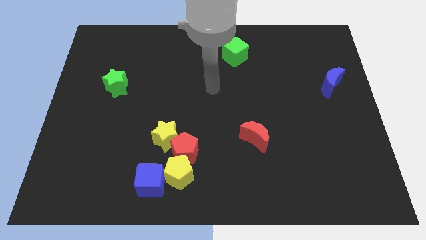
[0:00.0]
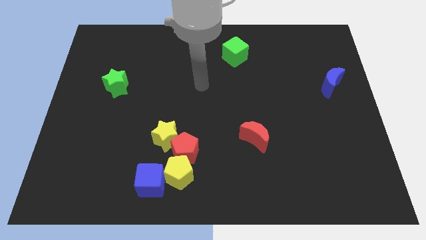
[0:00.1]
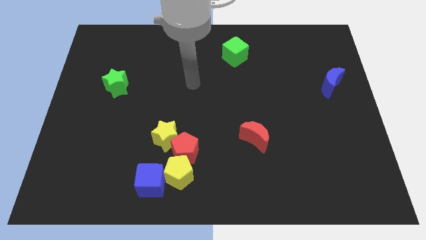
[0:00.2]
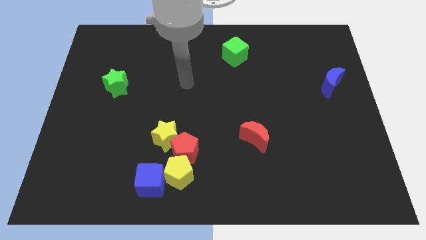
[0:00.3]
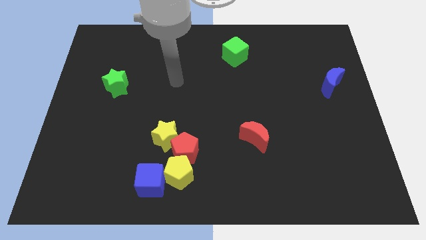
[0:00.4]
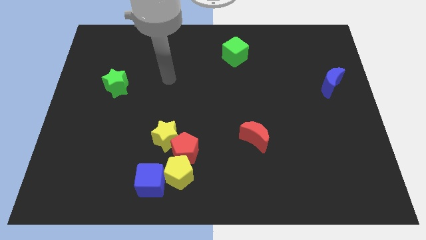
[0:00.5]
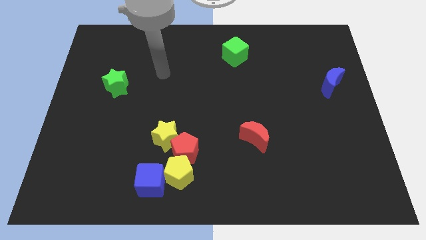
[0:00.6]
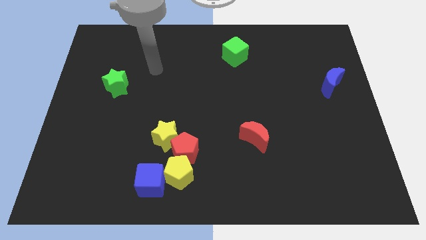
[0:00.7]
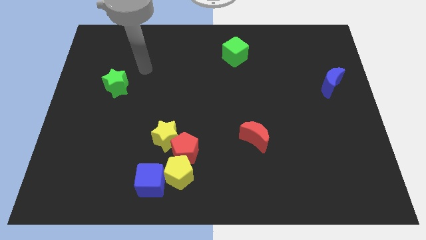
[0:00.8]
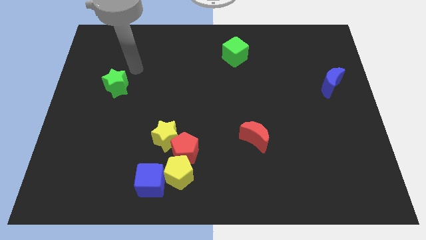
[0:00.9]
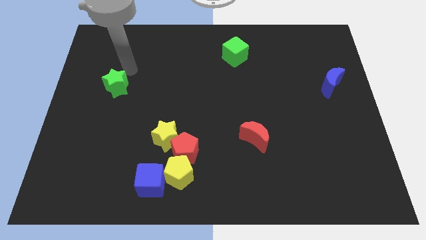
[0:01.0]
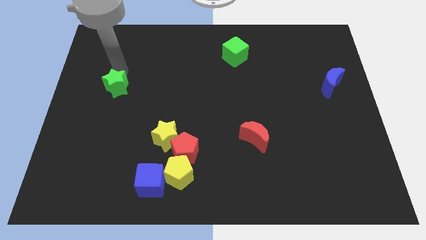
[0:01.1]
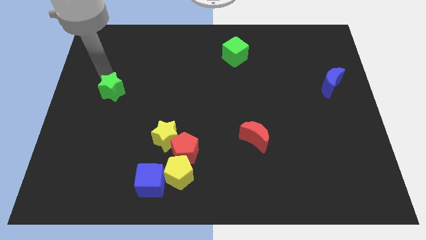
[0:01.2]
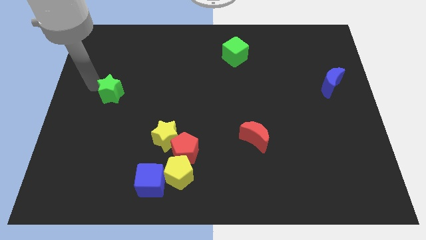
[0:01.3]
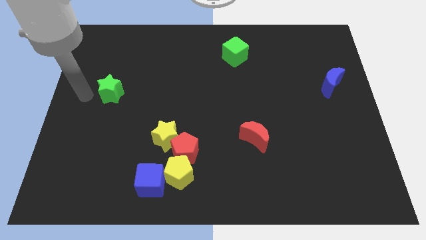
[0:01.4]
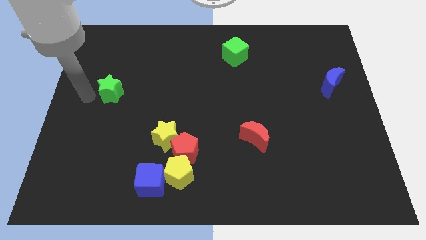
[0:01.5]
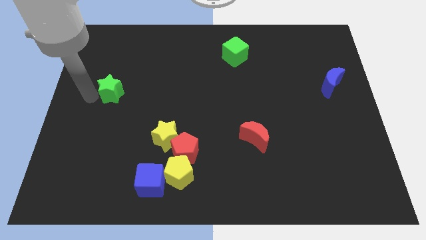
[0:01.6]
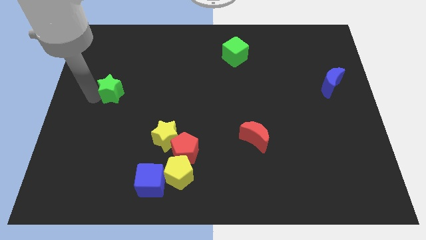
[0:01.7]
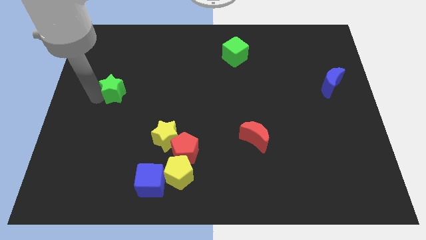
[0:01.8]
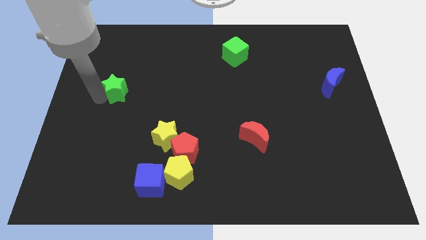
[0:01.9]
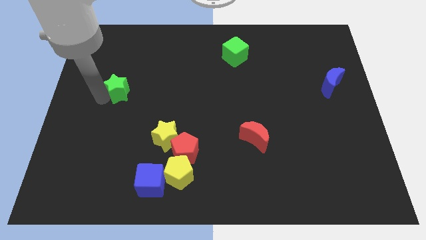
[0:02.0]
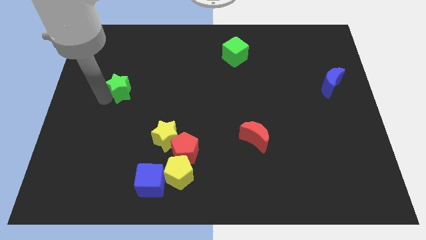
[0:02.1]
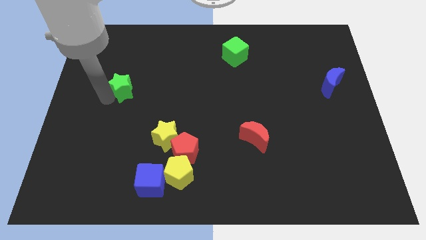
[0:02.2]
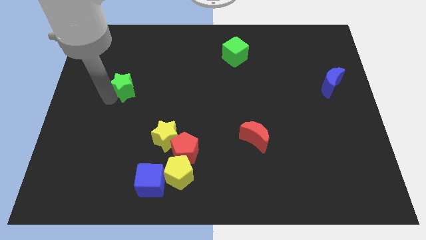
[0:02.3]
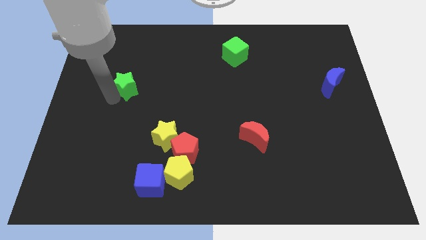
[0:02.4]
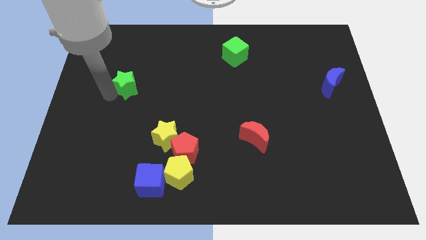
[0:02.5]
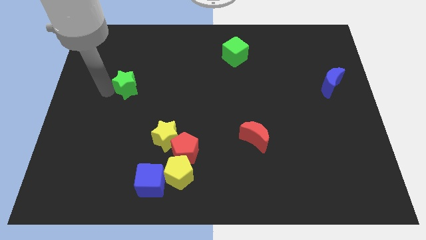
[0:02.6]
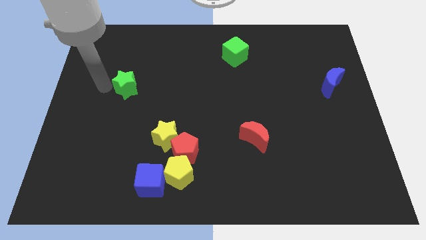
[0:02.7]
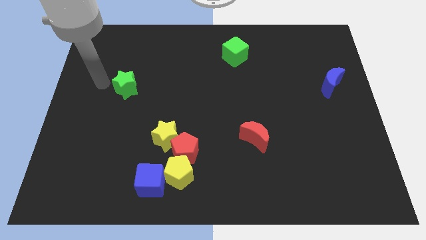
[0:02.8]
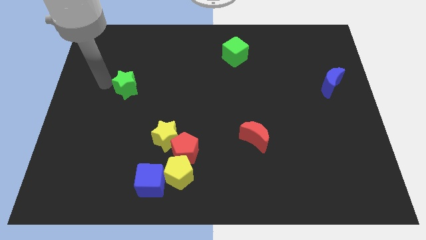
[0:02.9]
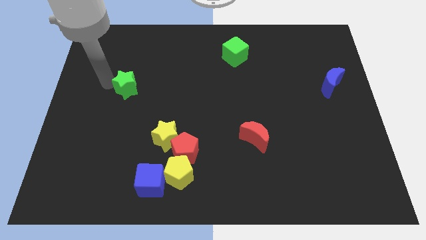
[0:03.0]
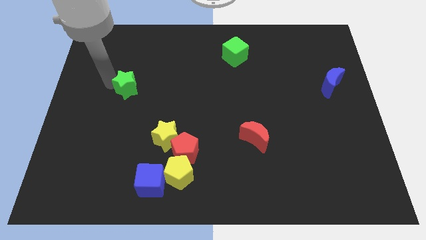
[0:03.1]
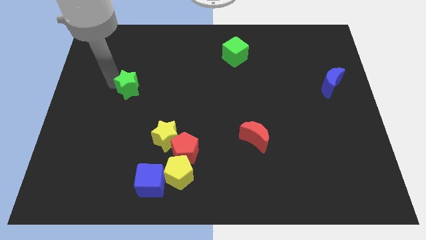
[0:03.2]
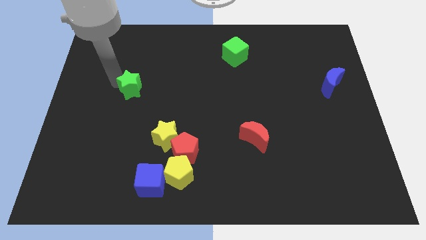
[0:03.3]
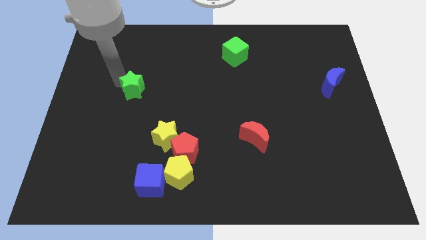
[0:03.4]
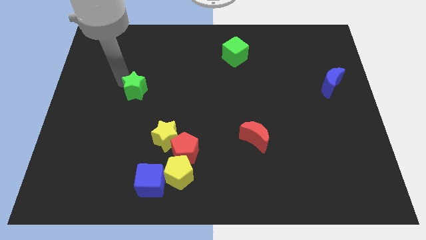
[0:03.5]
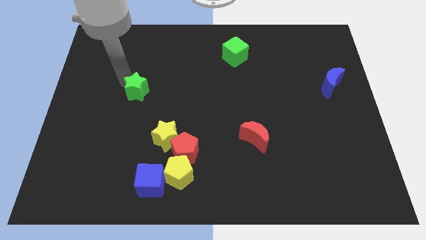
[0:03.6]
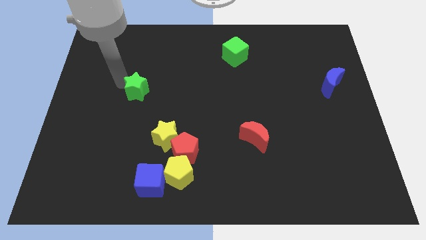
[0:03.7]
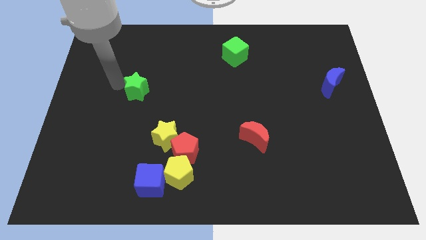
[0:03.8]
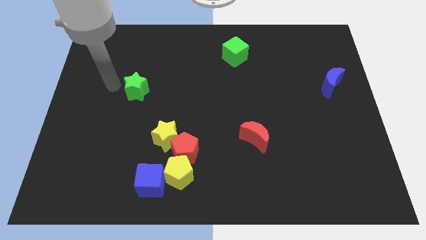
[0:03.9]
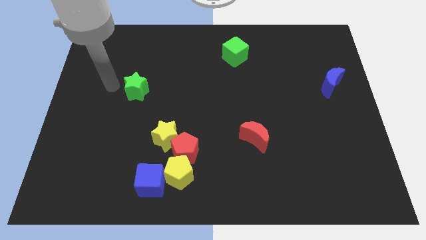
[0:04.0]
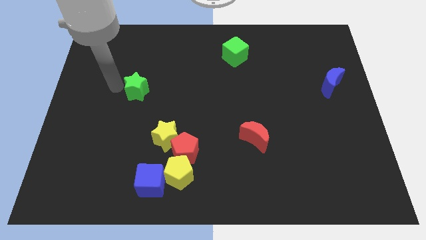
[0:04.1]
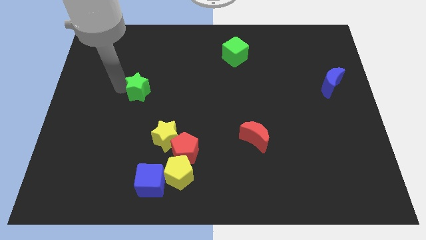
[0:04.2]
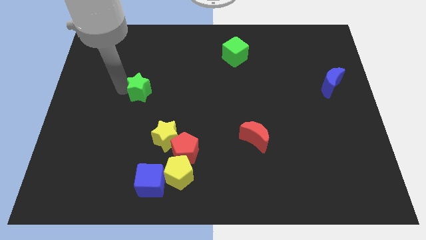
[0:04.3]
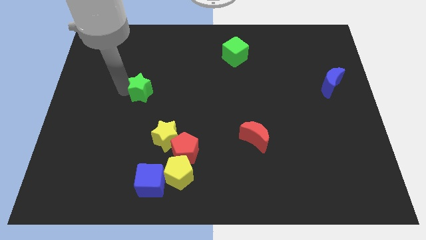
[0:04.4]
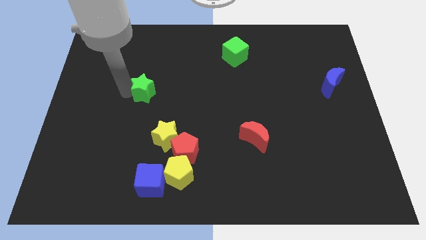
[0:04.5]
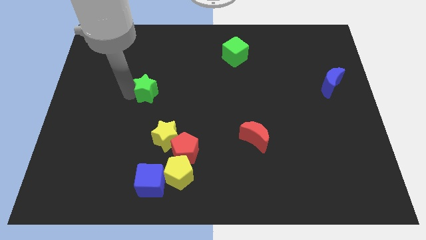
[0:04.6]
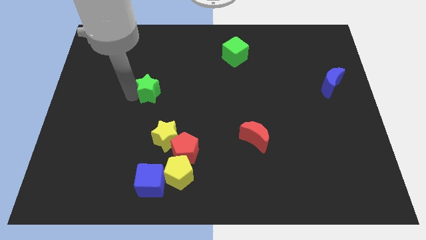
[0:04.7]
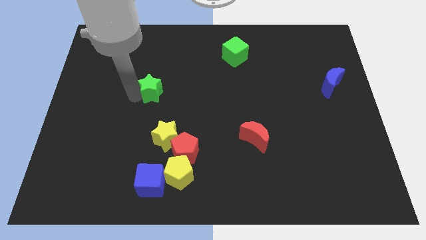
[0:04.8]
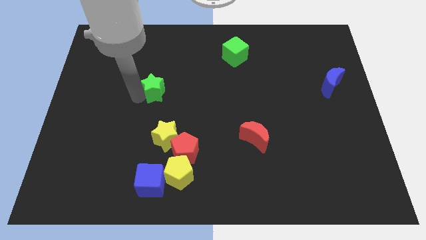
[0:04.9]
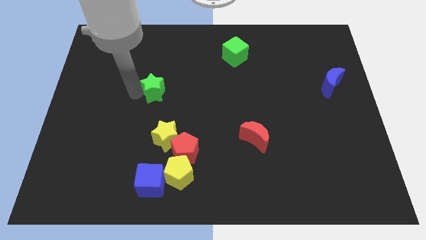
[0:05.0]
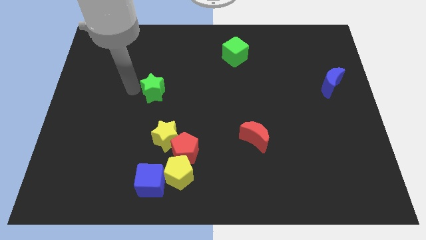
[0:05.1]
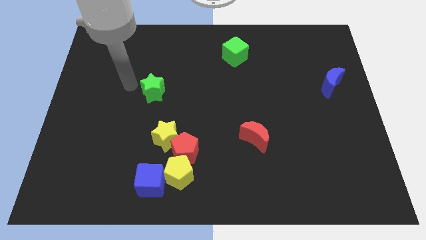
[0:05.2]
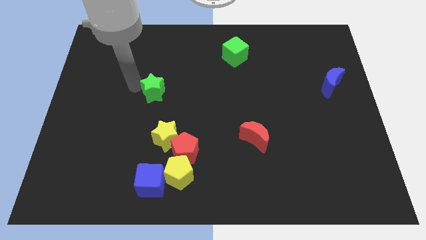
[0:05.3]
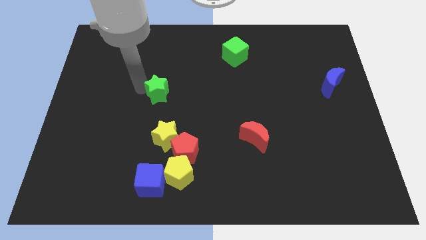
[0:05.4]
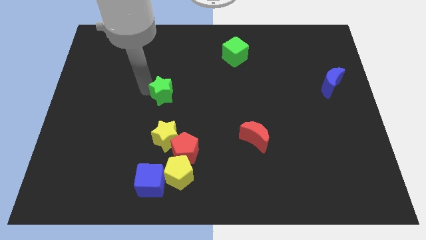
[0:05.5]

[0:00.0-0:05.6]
move the green star to the center of the board

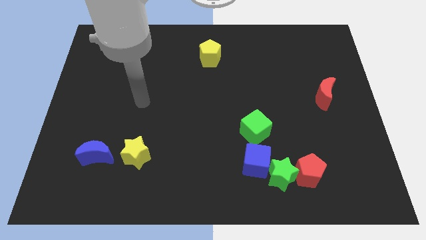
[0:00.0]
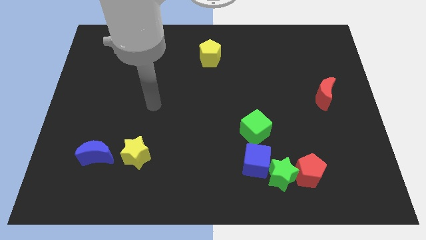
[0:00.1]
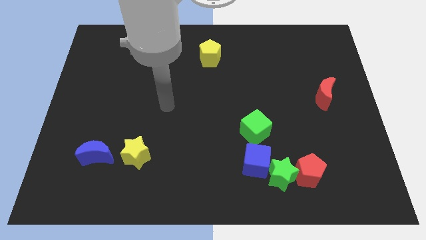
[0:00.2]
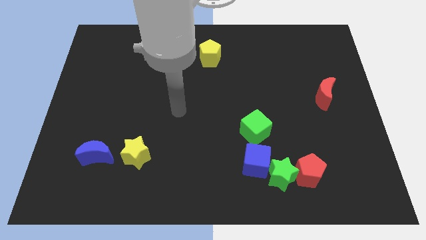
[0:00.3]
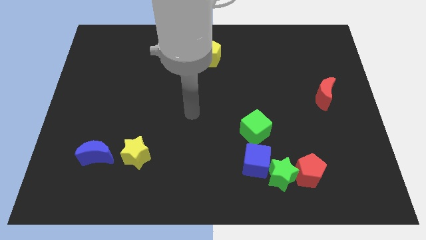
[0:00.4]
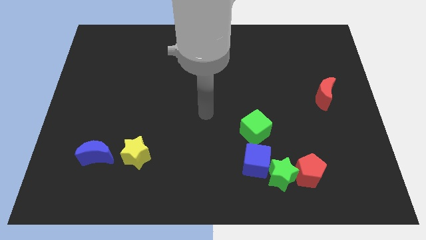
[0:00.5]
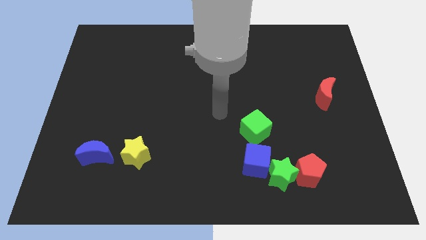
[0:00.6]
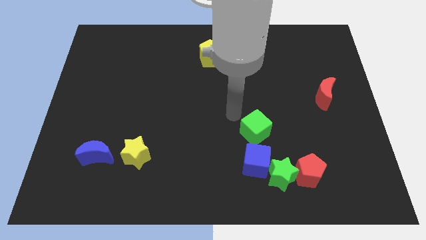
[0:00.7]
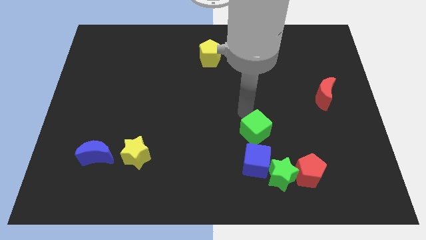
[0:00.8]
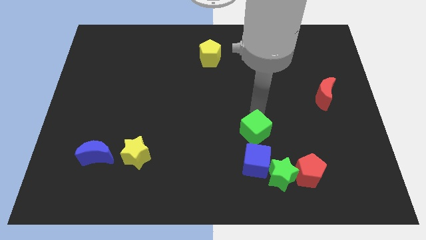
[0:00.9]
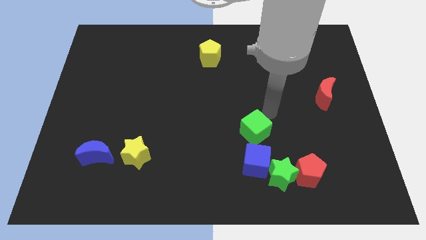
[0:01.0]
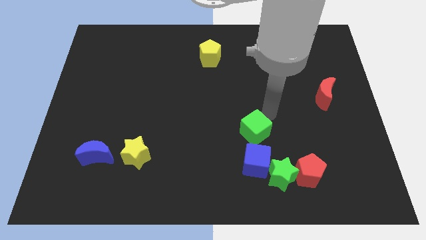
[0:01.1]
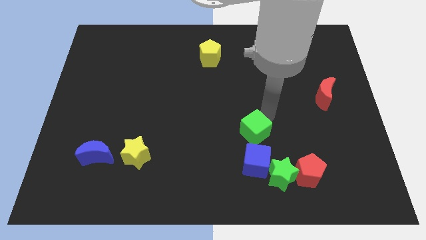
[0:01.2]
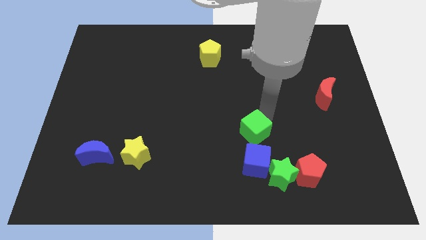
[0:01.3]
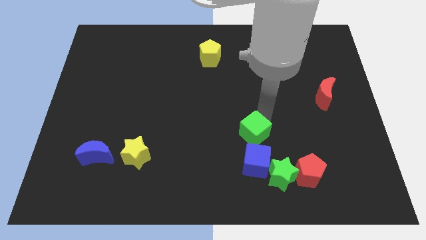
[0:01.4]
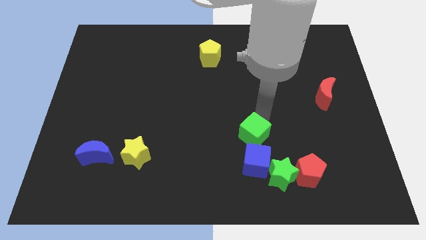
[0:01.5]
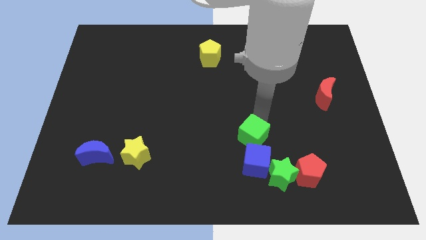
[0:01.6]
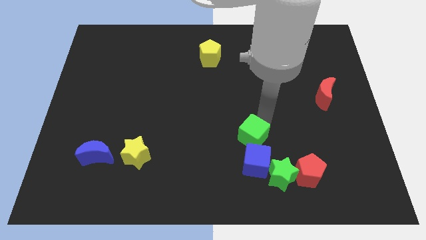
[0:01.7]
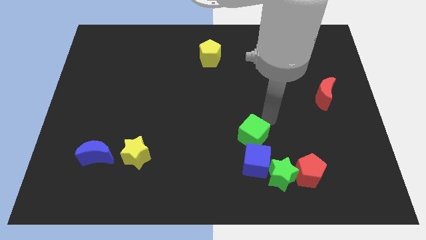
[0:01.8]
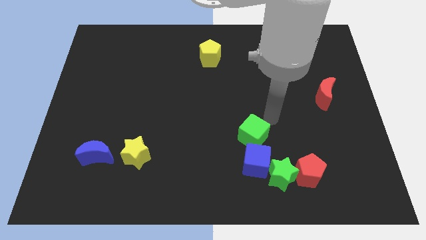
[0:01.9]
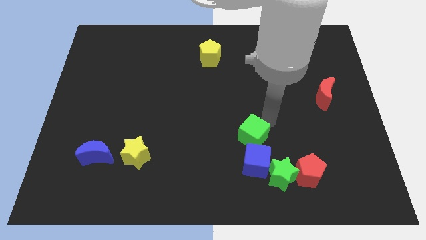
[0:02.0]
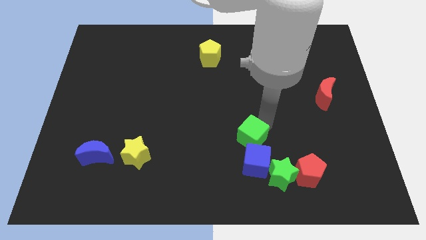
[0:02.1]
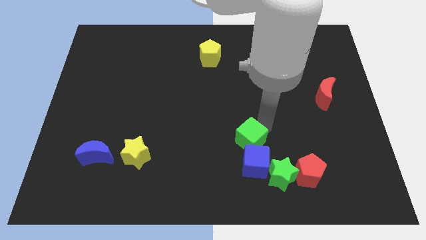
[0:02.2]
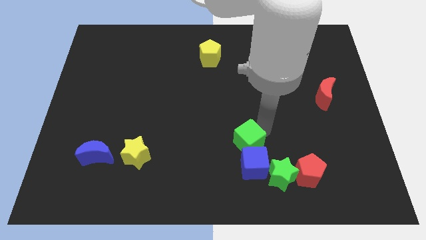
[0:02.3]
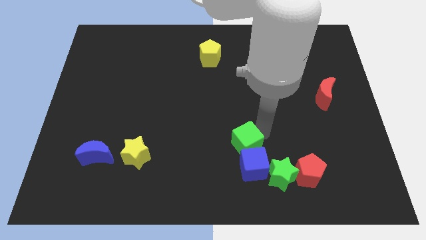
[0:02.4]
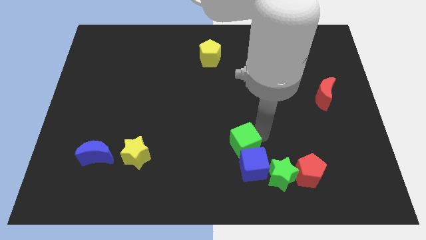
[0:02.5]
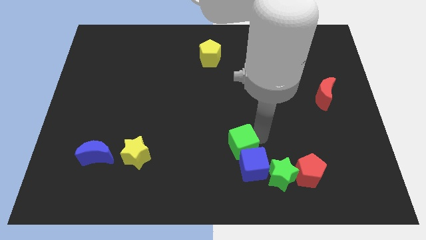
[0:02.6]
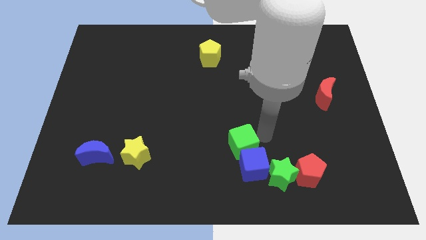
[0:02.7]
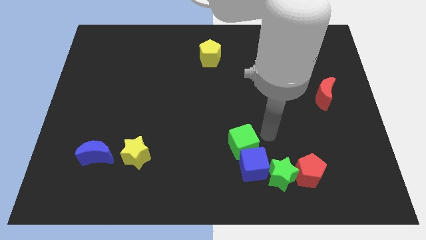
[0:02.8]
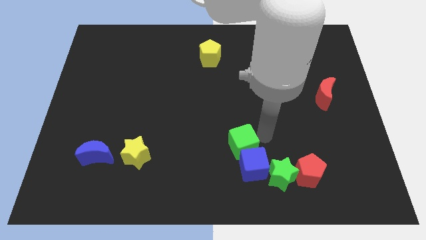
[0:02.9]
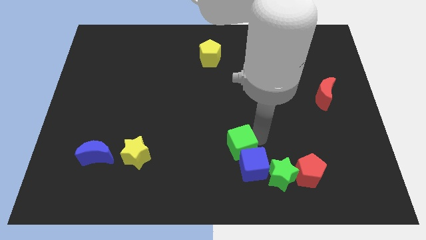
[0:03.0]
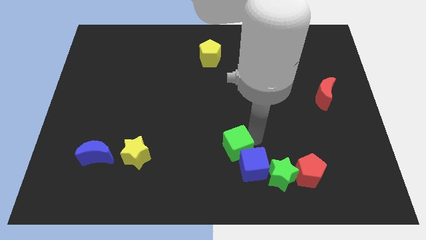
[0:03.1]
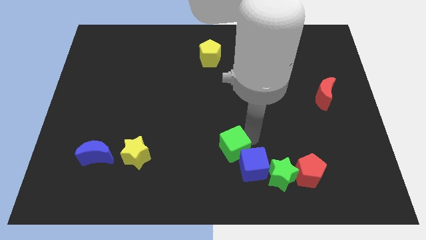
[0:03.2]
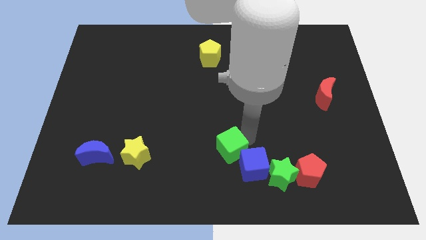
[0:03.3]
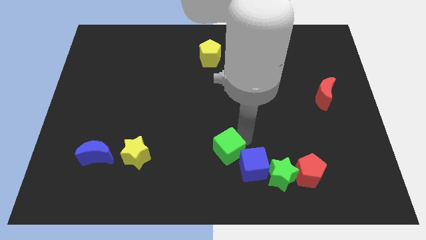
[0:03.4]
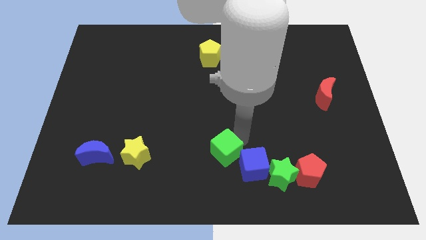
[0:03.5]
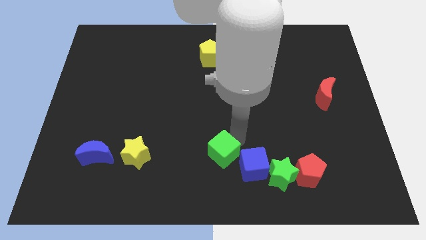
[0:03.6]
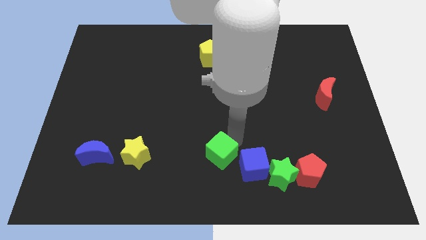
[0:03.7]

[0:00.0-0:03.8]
push the green cube to the bottom
